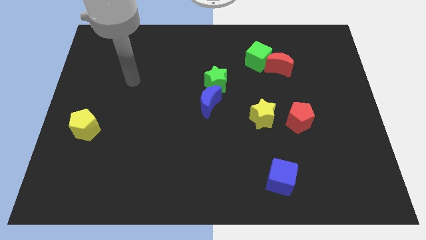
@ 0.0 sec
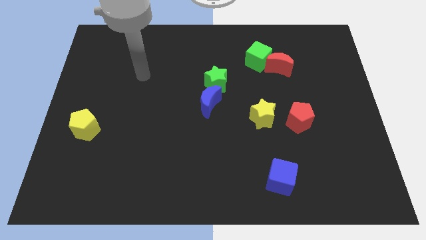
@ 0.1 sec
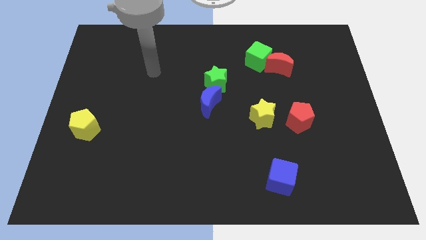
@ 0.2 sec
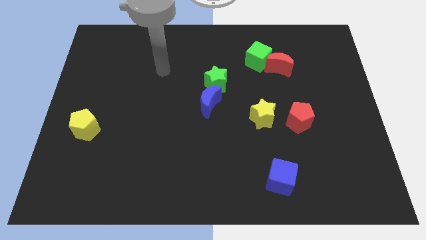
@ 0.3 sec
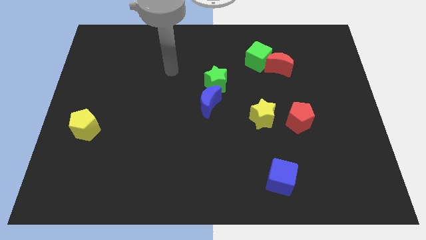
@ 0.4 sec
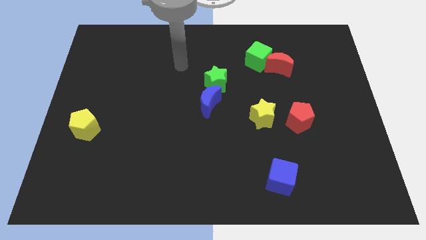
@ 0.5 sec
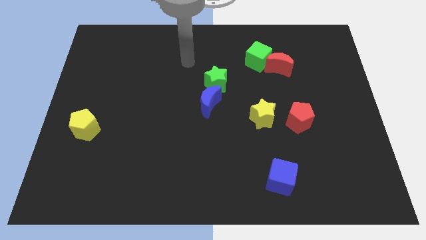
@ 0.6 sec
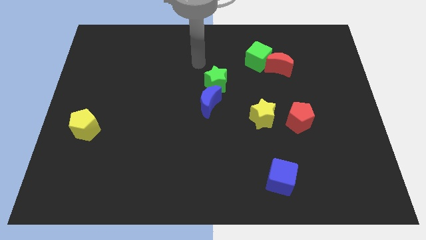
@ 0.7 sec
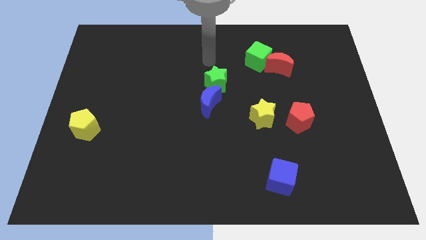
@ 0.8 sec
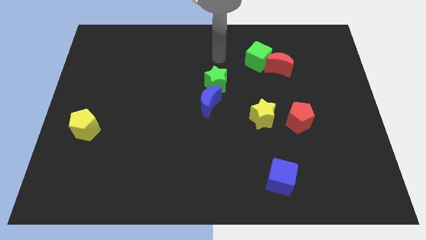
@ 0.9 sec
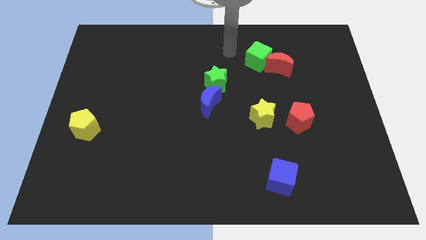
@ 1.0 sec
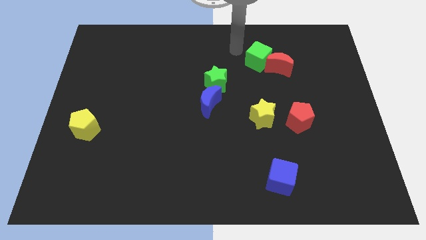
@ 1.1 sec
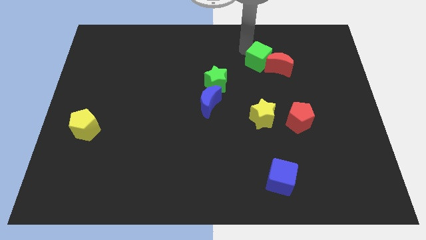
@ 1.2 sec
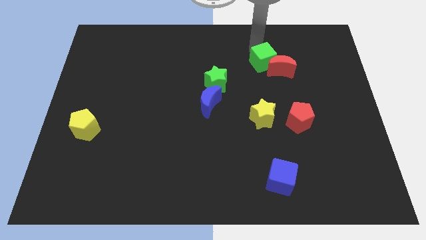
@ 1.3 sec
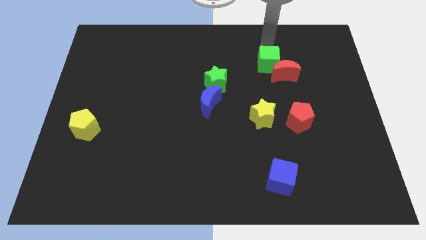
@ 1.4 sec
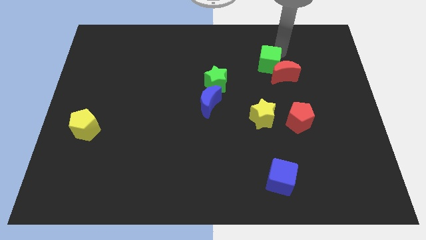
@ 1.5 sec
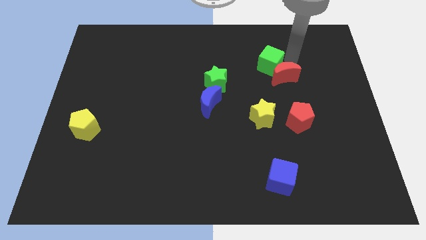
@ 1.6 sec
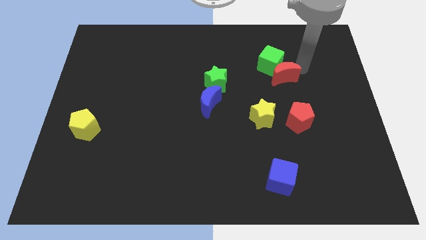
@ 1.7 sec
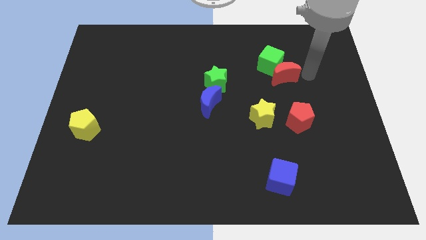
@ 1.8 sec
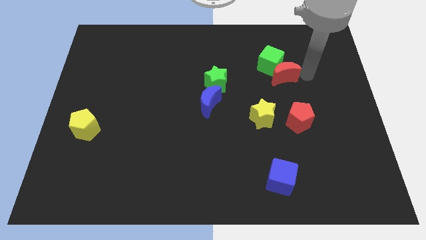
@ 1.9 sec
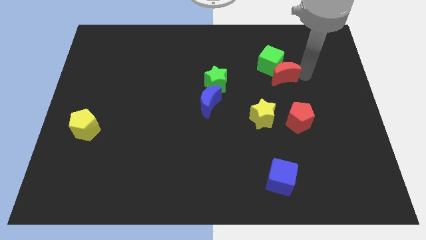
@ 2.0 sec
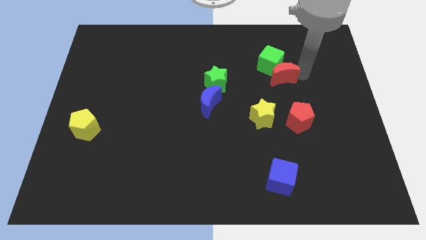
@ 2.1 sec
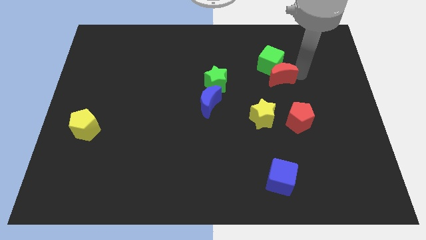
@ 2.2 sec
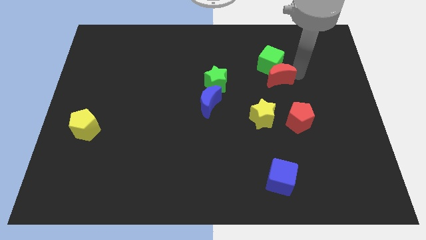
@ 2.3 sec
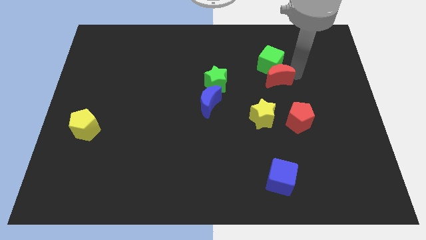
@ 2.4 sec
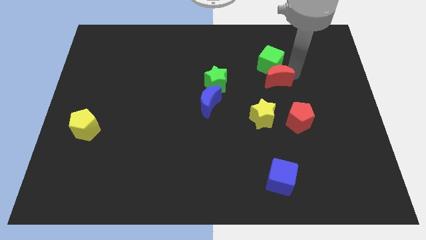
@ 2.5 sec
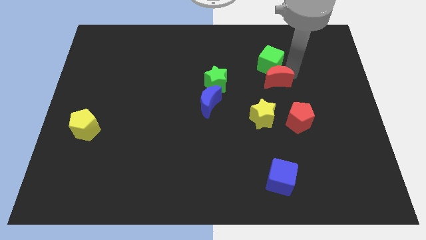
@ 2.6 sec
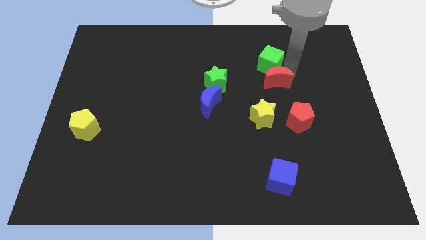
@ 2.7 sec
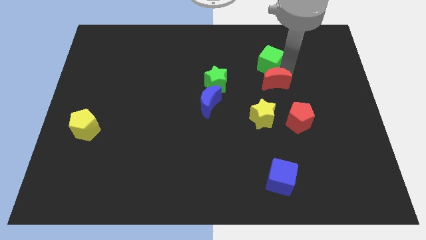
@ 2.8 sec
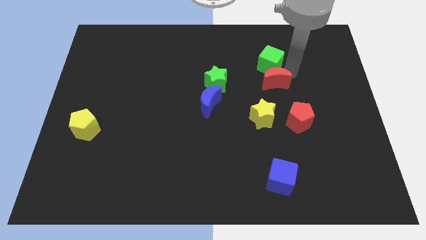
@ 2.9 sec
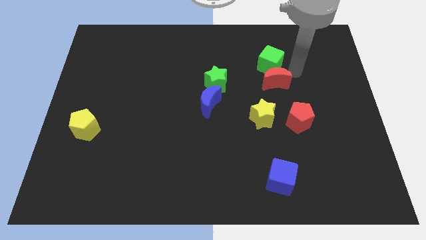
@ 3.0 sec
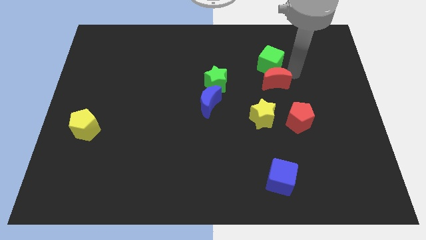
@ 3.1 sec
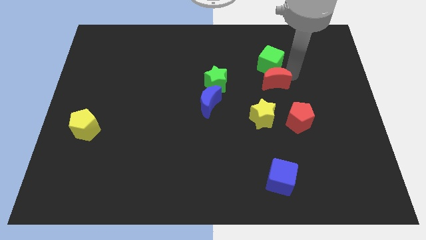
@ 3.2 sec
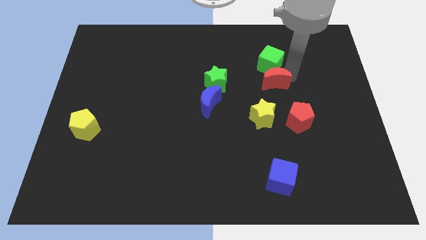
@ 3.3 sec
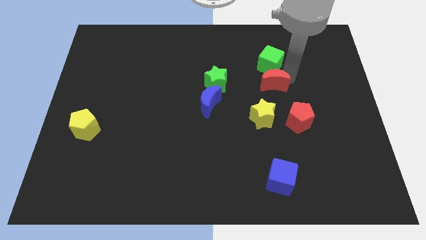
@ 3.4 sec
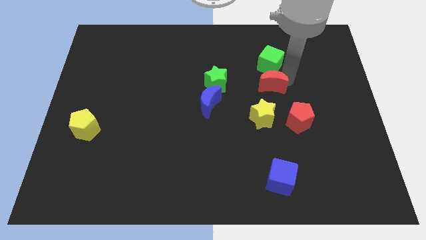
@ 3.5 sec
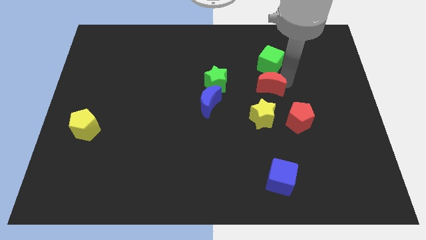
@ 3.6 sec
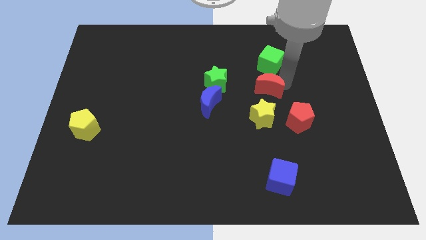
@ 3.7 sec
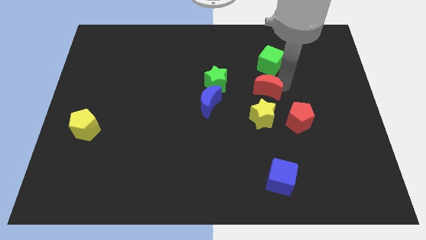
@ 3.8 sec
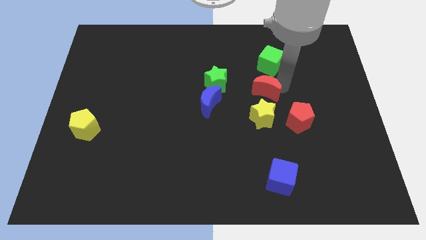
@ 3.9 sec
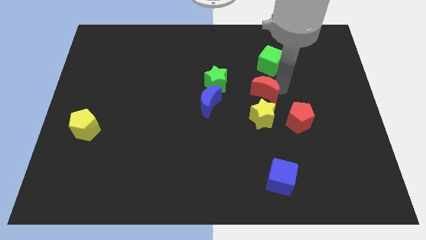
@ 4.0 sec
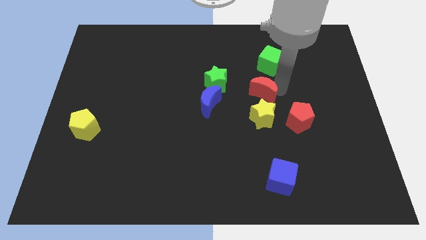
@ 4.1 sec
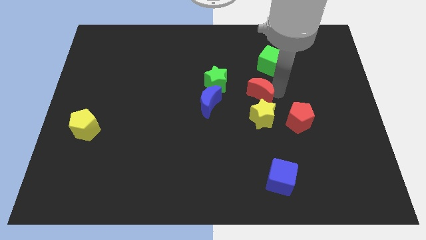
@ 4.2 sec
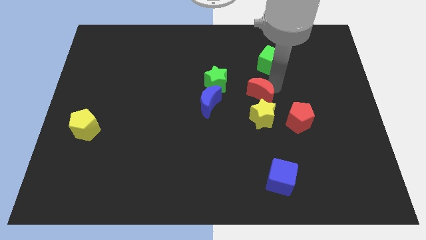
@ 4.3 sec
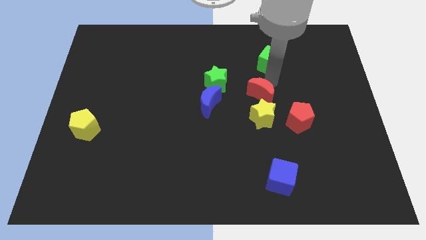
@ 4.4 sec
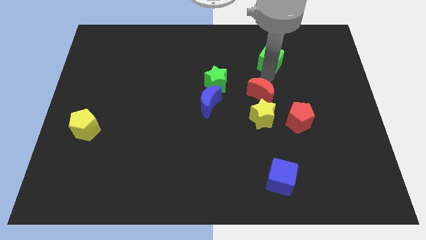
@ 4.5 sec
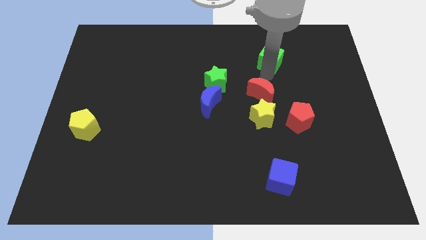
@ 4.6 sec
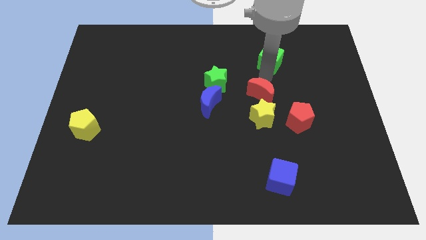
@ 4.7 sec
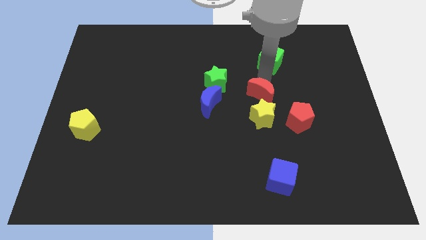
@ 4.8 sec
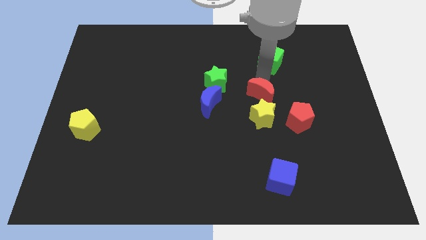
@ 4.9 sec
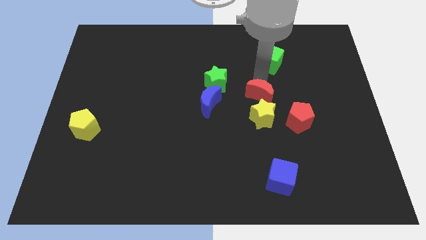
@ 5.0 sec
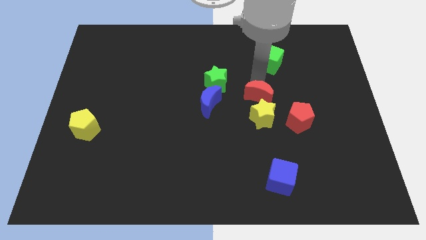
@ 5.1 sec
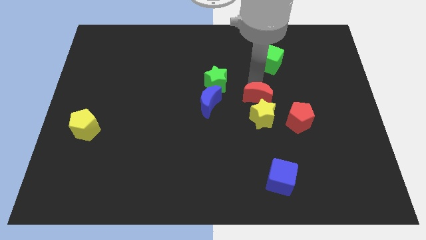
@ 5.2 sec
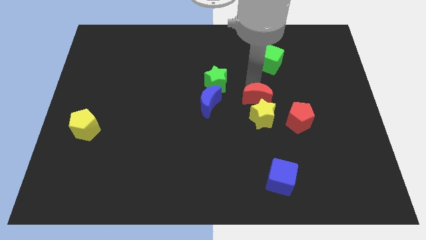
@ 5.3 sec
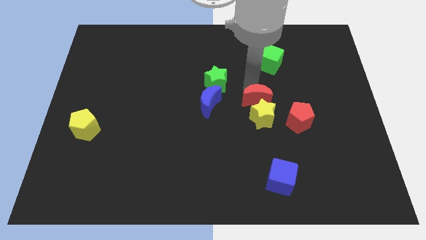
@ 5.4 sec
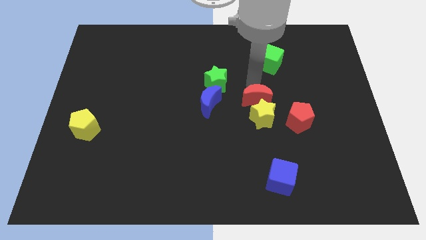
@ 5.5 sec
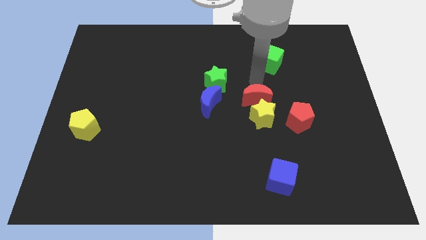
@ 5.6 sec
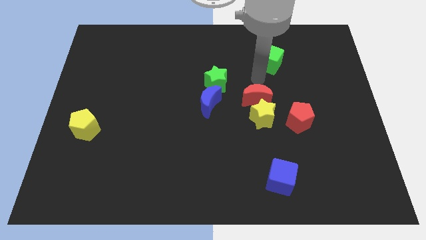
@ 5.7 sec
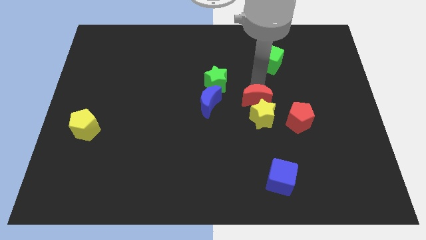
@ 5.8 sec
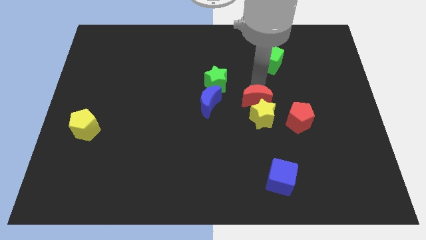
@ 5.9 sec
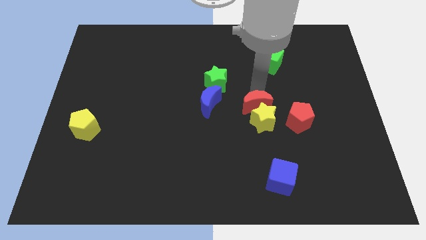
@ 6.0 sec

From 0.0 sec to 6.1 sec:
slide the red moon left of the red pentagon

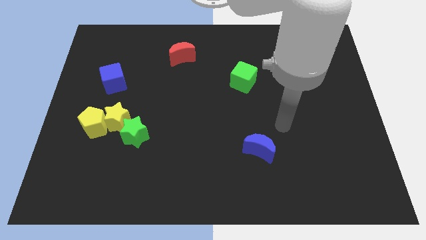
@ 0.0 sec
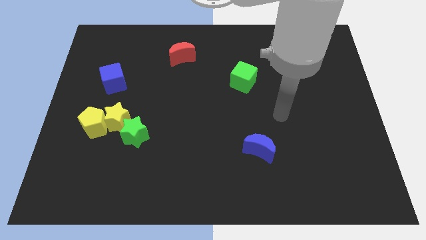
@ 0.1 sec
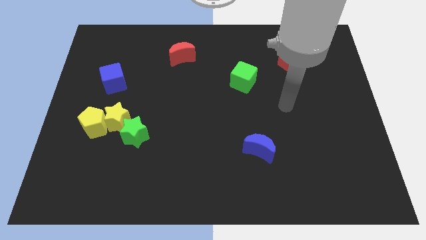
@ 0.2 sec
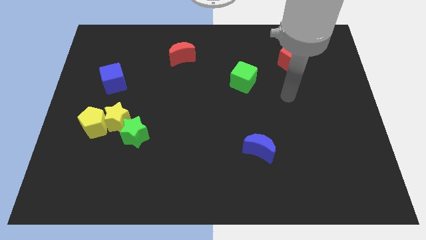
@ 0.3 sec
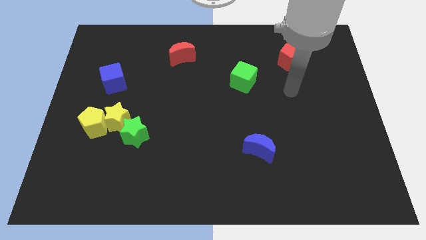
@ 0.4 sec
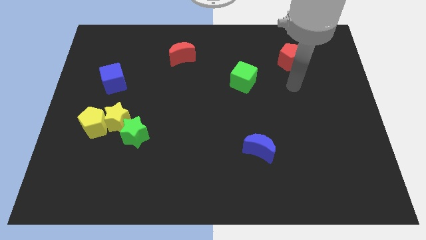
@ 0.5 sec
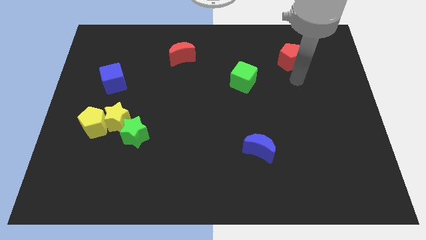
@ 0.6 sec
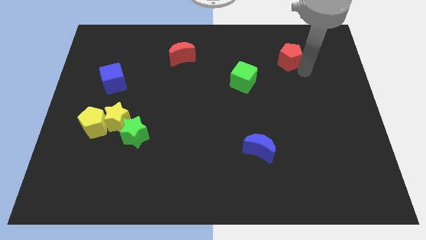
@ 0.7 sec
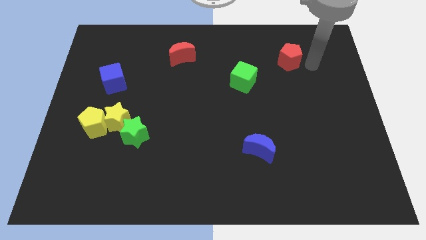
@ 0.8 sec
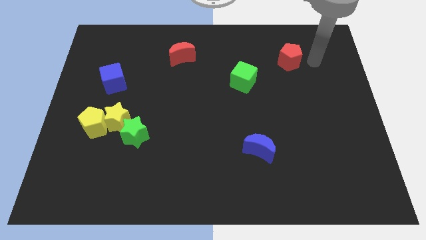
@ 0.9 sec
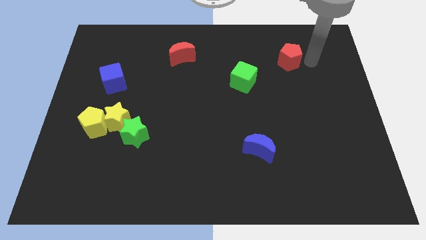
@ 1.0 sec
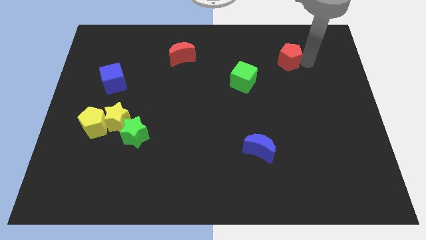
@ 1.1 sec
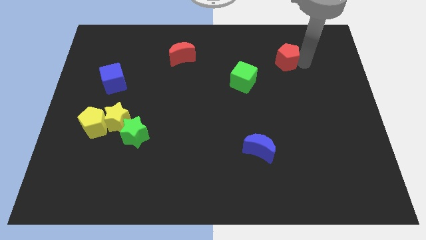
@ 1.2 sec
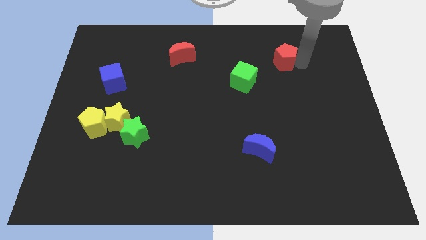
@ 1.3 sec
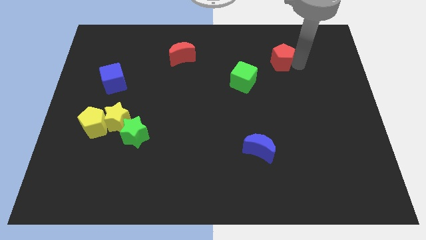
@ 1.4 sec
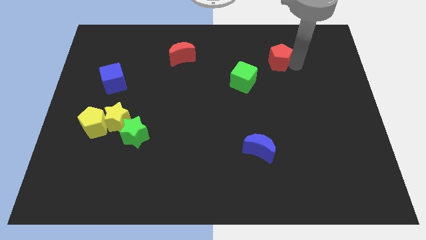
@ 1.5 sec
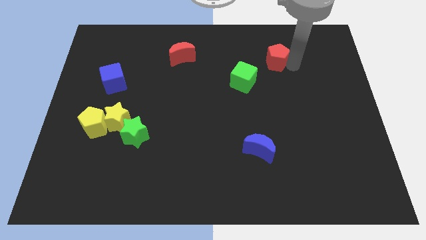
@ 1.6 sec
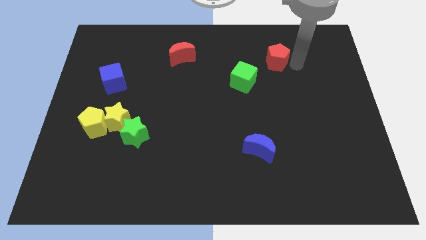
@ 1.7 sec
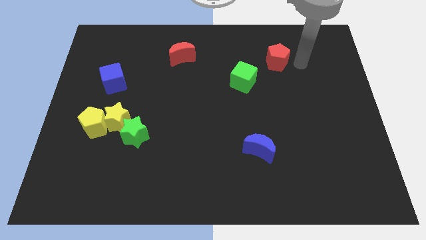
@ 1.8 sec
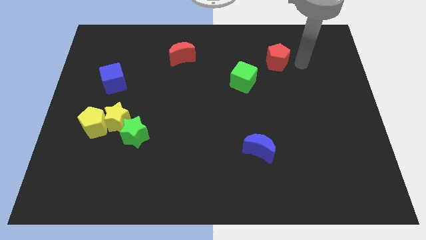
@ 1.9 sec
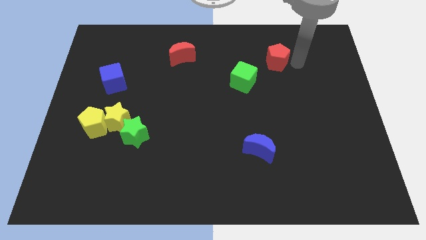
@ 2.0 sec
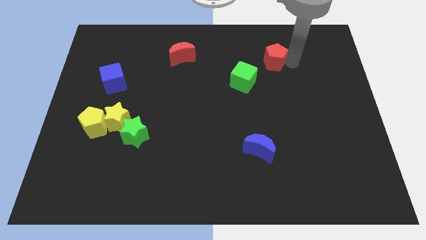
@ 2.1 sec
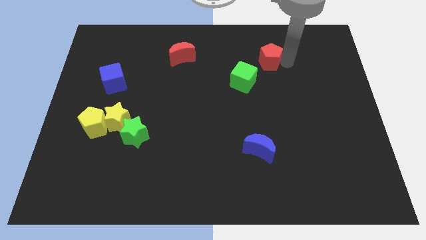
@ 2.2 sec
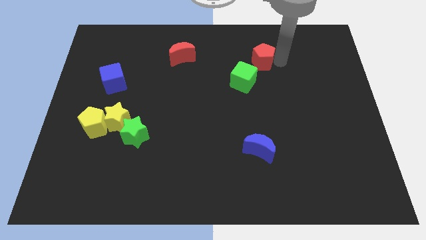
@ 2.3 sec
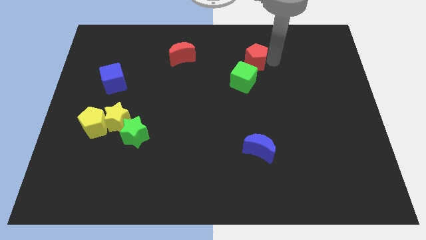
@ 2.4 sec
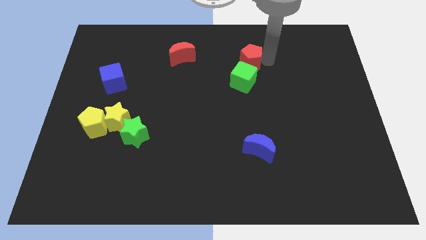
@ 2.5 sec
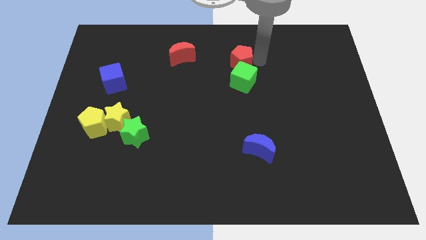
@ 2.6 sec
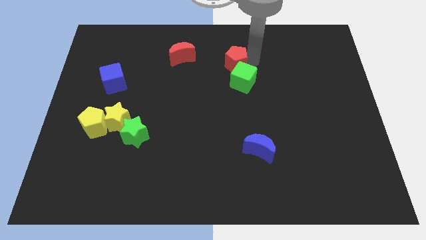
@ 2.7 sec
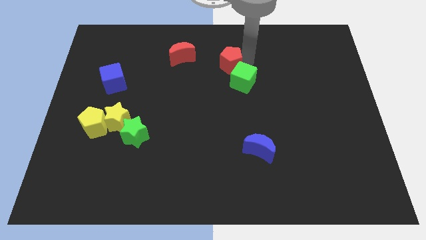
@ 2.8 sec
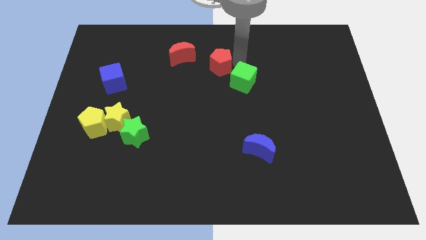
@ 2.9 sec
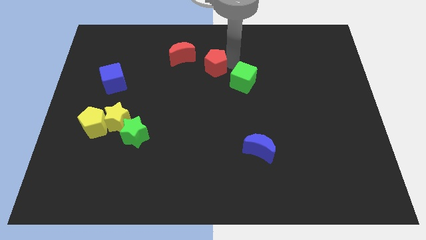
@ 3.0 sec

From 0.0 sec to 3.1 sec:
push the red pentagon to the bottom right side of the red moon
